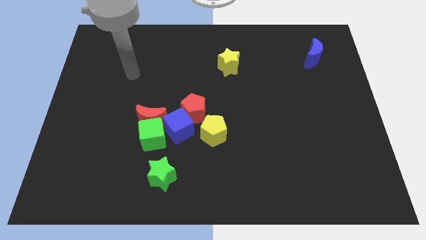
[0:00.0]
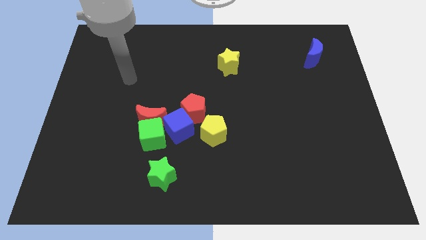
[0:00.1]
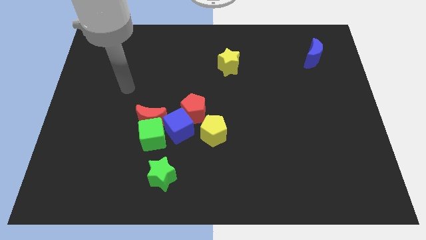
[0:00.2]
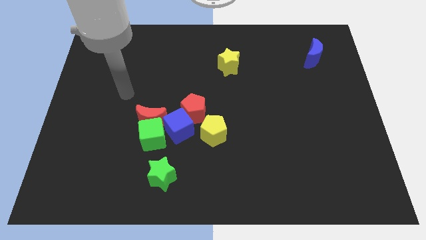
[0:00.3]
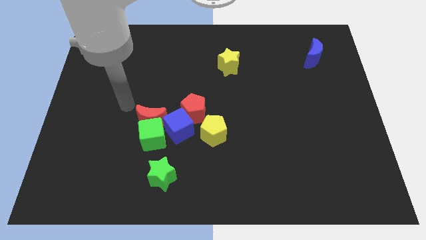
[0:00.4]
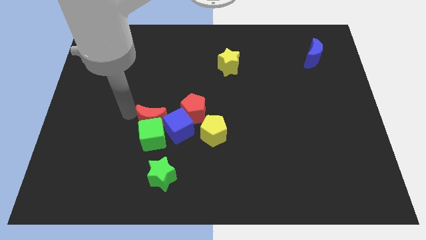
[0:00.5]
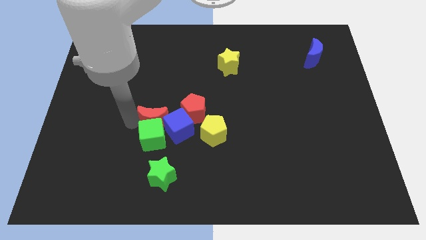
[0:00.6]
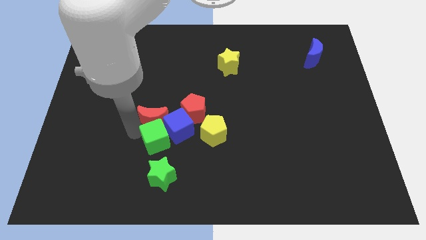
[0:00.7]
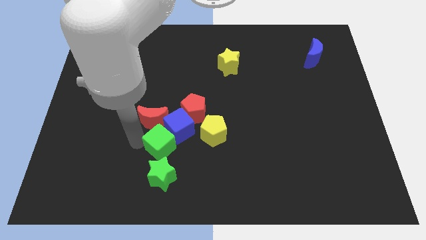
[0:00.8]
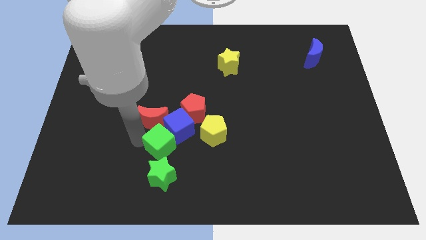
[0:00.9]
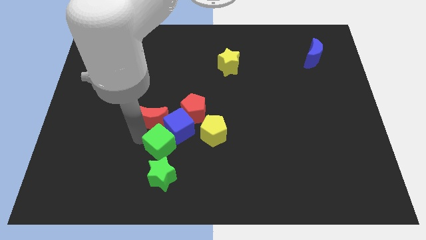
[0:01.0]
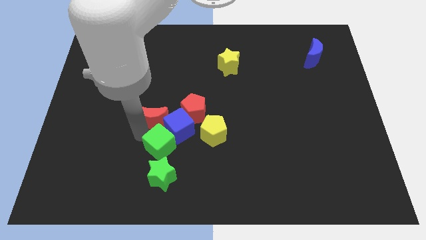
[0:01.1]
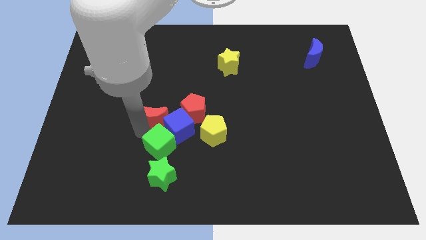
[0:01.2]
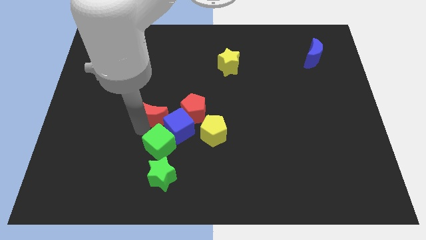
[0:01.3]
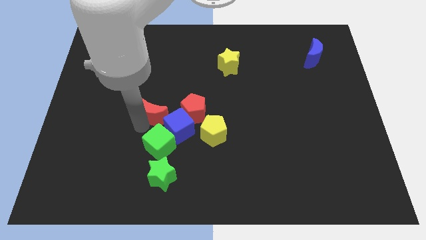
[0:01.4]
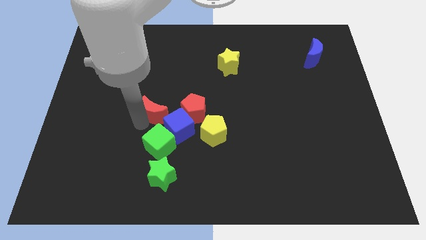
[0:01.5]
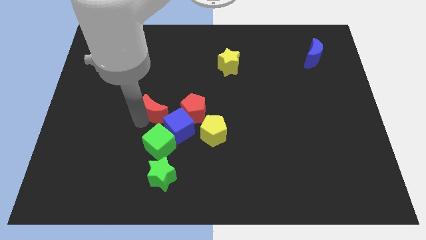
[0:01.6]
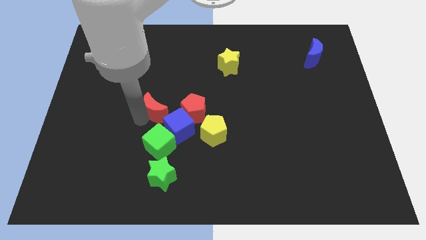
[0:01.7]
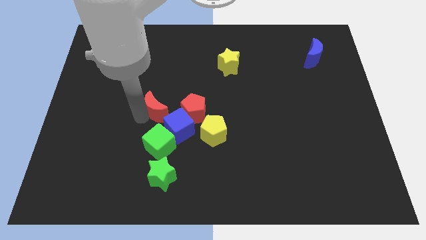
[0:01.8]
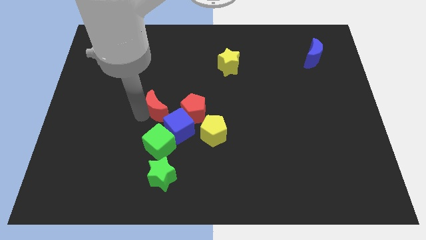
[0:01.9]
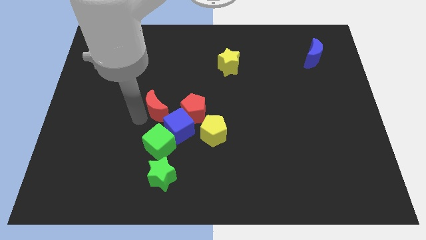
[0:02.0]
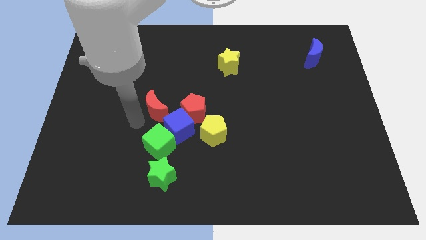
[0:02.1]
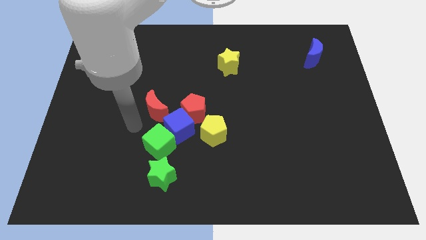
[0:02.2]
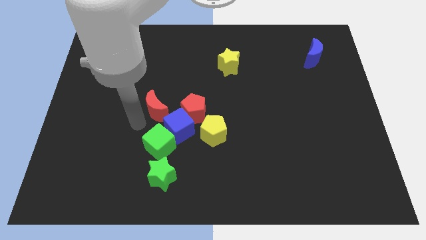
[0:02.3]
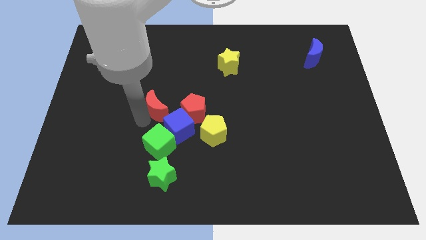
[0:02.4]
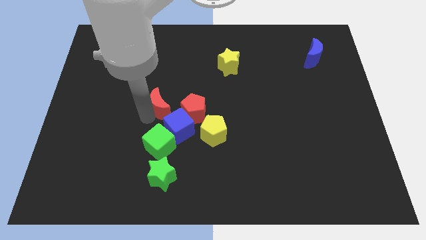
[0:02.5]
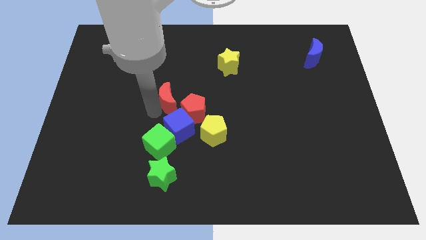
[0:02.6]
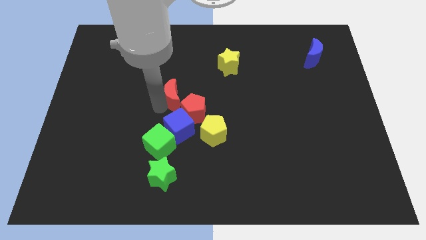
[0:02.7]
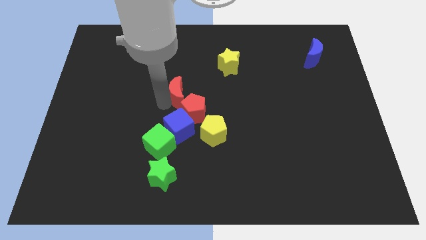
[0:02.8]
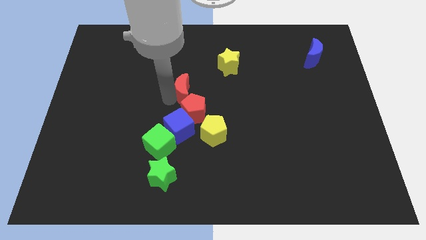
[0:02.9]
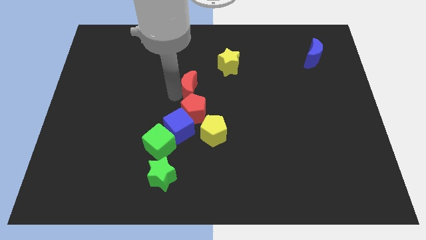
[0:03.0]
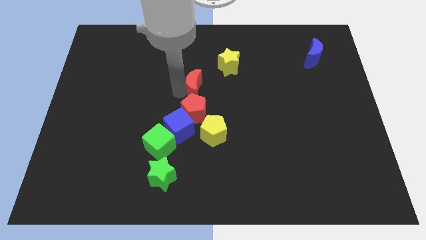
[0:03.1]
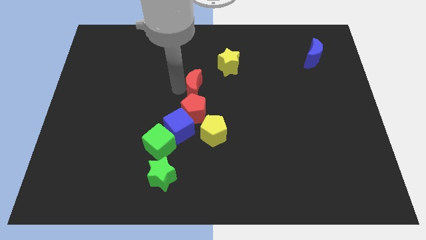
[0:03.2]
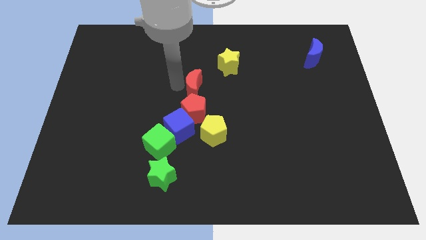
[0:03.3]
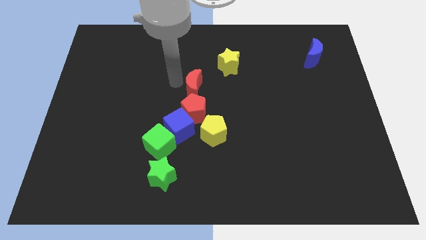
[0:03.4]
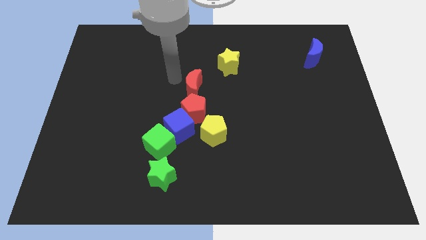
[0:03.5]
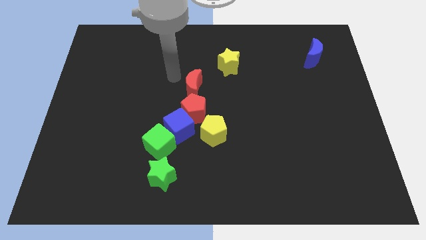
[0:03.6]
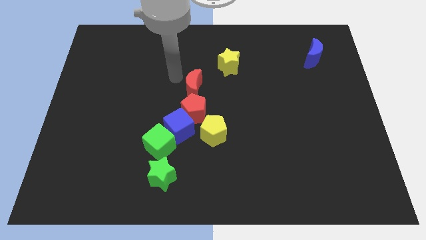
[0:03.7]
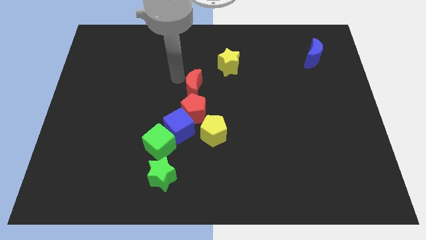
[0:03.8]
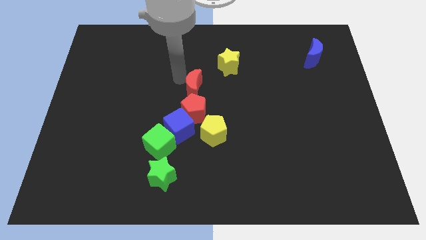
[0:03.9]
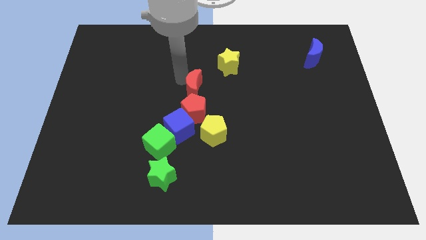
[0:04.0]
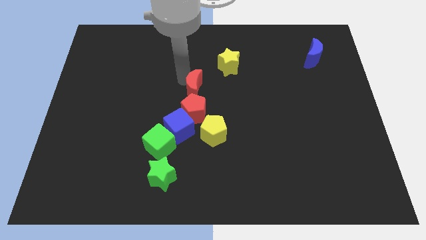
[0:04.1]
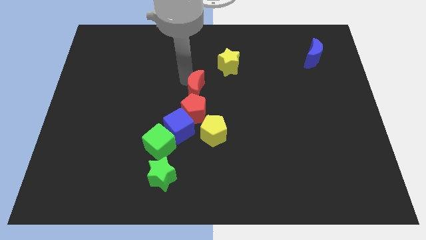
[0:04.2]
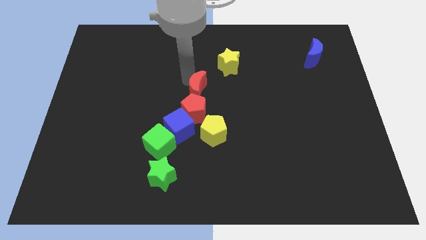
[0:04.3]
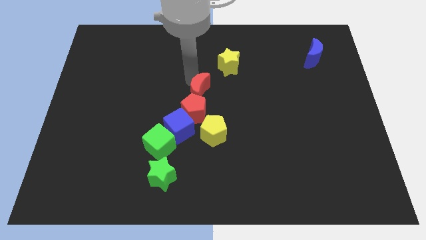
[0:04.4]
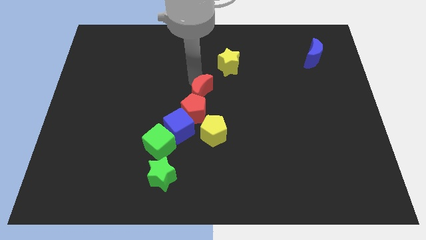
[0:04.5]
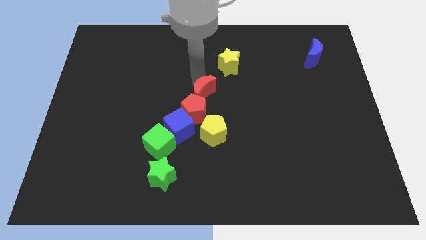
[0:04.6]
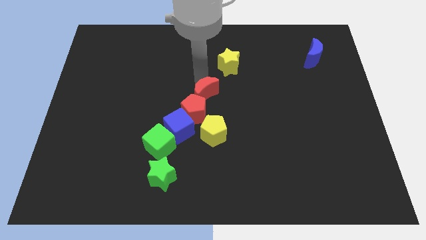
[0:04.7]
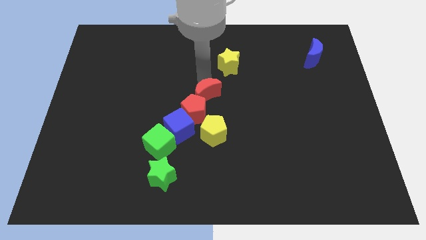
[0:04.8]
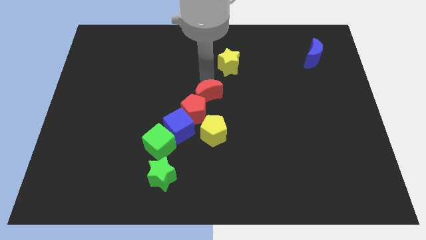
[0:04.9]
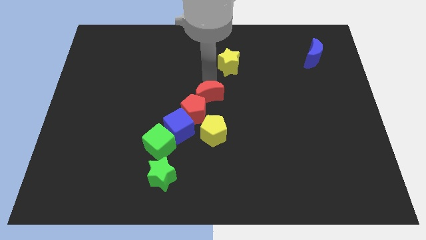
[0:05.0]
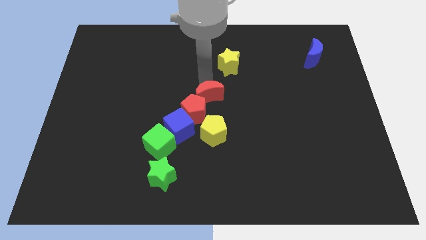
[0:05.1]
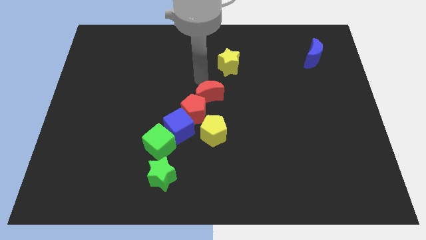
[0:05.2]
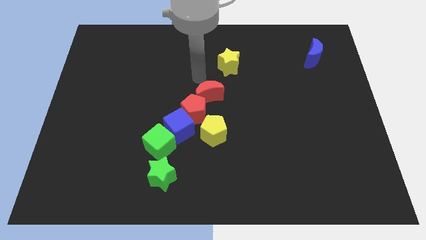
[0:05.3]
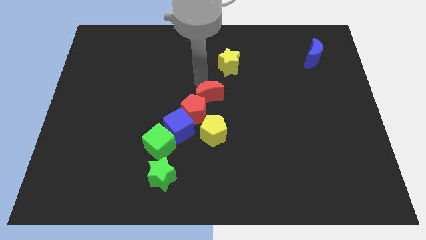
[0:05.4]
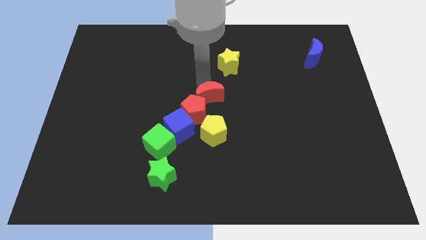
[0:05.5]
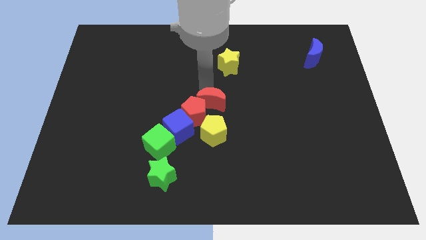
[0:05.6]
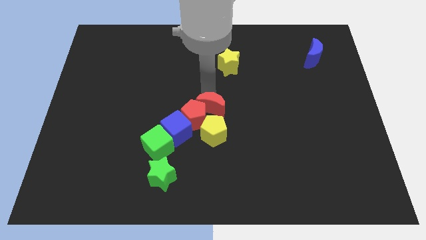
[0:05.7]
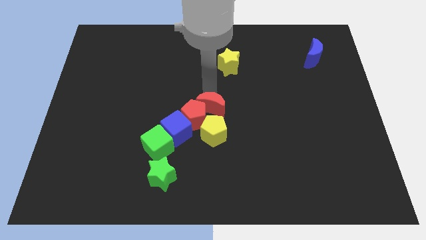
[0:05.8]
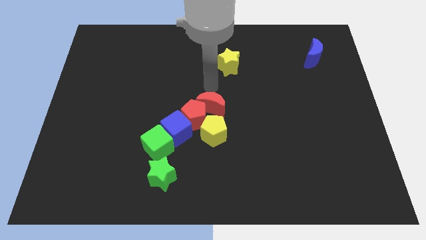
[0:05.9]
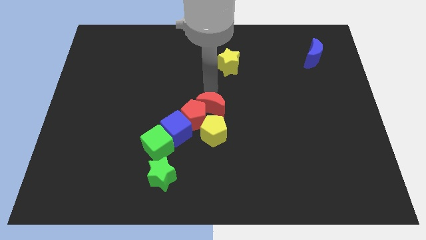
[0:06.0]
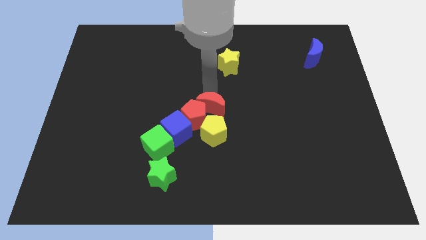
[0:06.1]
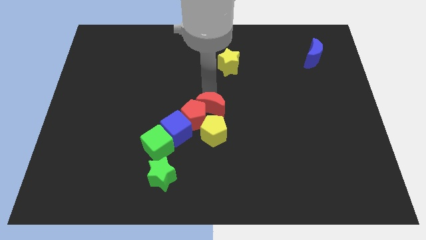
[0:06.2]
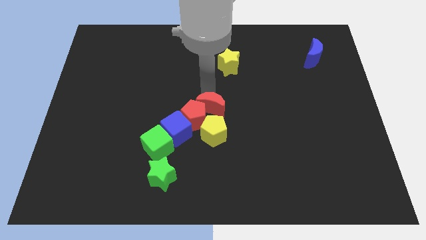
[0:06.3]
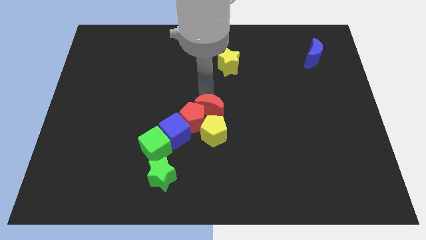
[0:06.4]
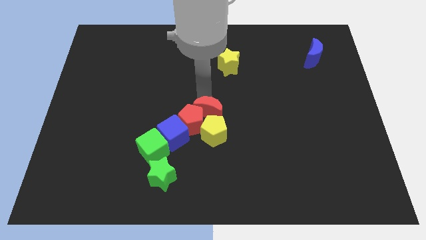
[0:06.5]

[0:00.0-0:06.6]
move the red moon next to the yellow pentagon
